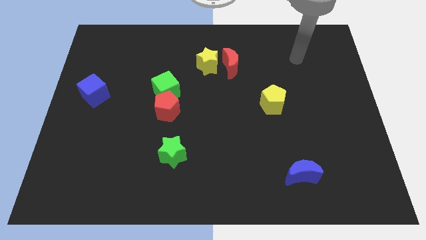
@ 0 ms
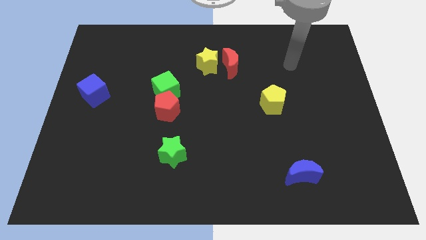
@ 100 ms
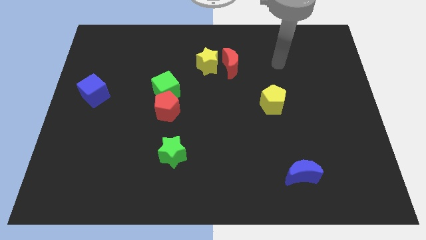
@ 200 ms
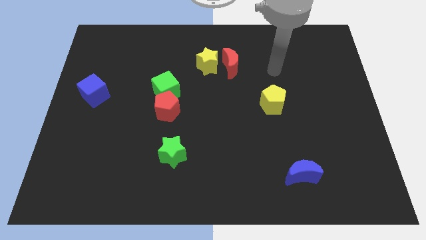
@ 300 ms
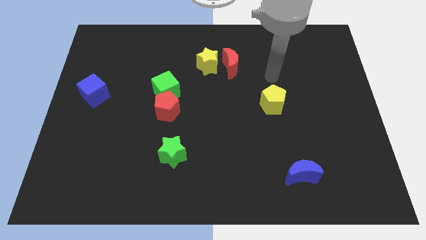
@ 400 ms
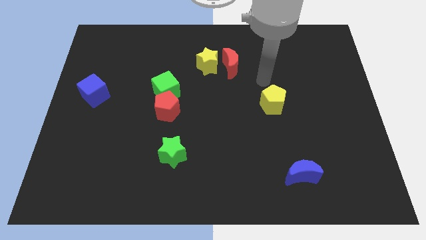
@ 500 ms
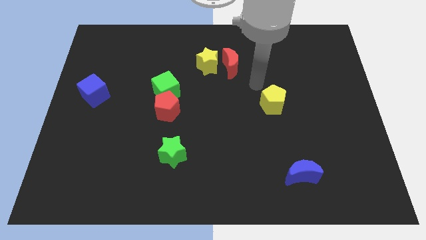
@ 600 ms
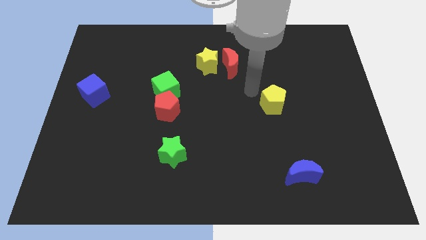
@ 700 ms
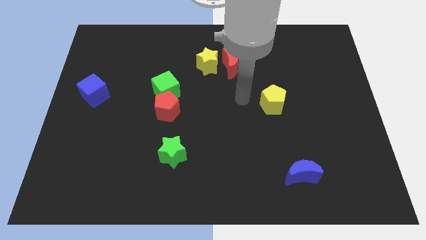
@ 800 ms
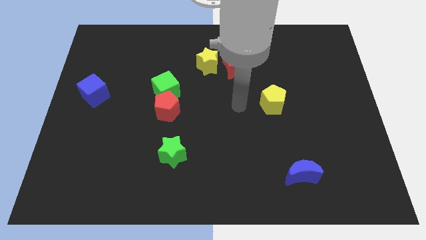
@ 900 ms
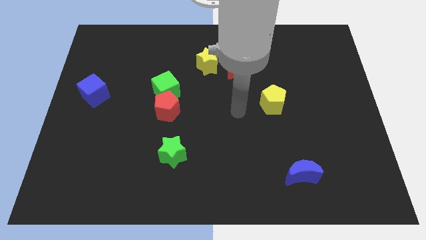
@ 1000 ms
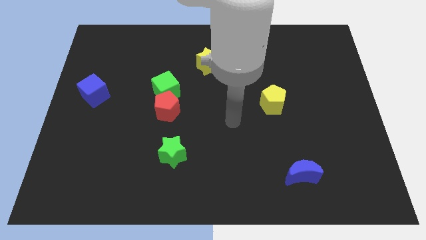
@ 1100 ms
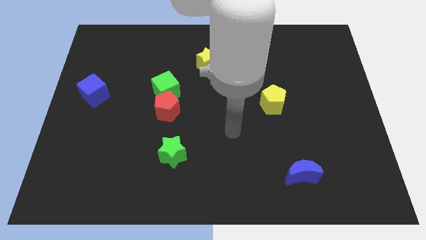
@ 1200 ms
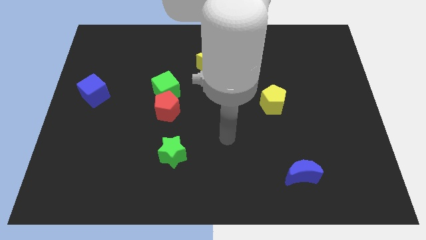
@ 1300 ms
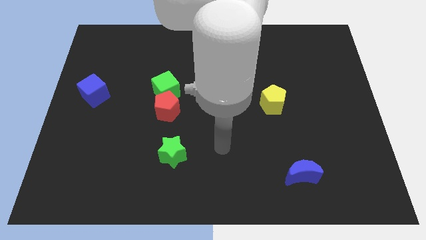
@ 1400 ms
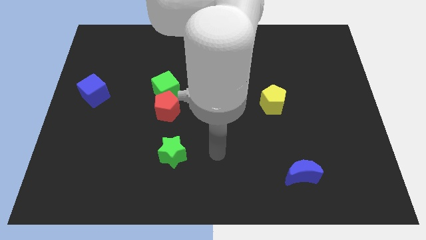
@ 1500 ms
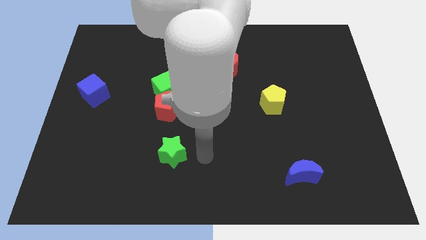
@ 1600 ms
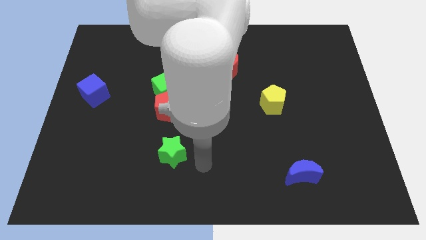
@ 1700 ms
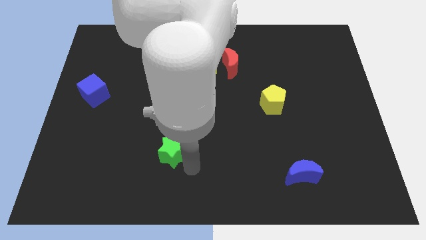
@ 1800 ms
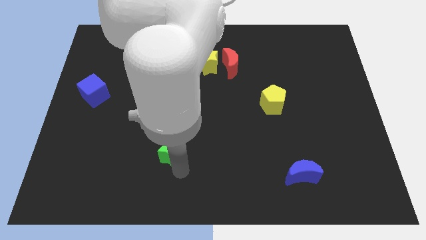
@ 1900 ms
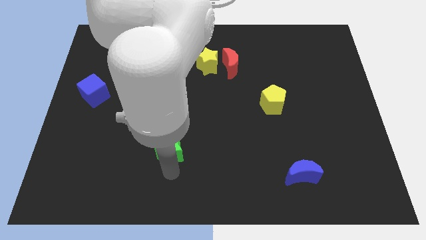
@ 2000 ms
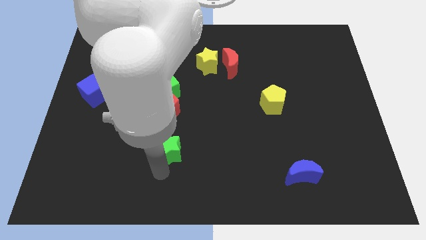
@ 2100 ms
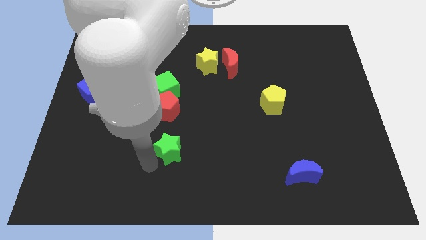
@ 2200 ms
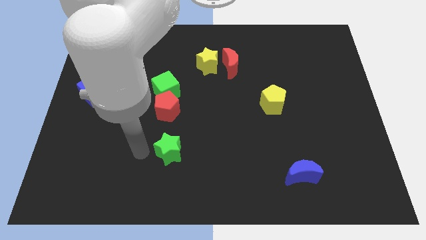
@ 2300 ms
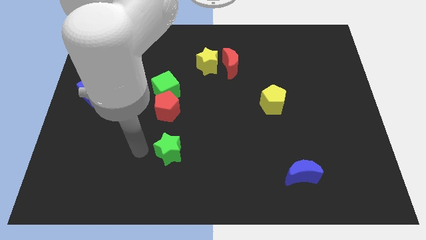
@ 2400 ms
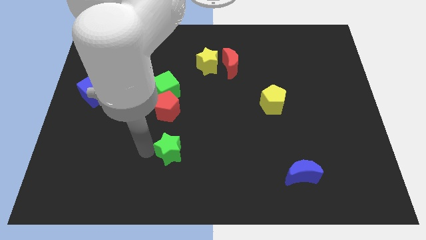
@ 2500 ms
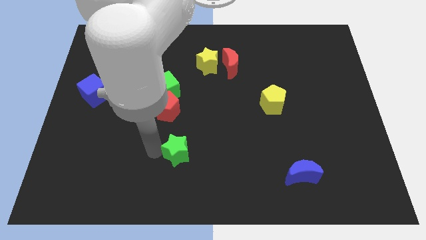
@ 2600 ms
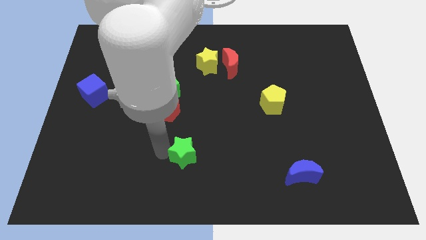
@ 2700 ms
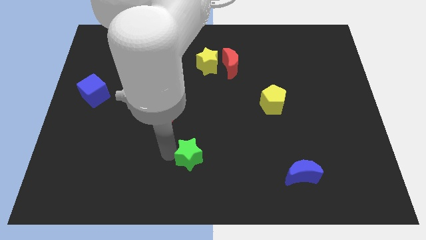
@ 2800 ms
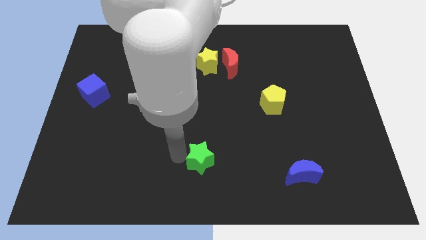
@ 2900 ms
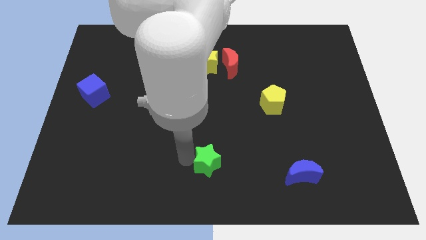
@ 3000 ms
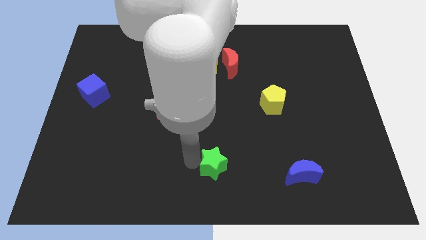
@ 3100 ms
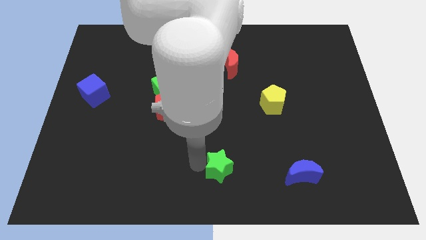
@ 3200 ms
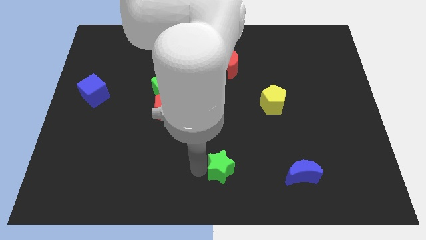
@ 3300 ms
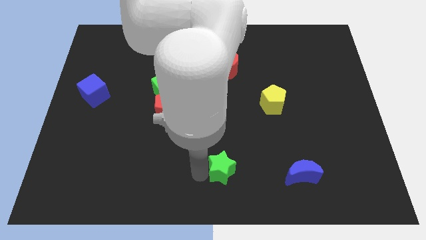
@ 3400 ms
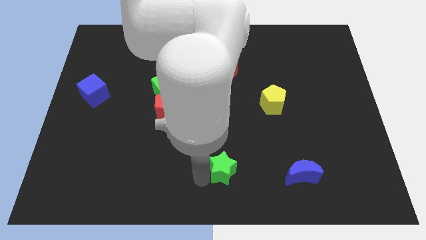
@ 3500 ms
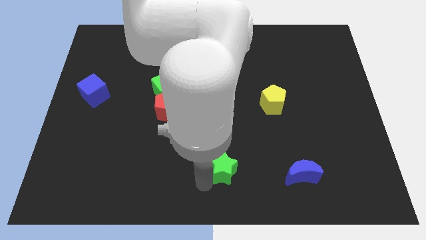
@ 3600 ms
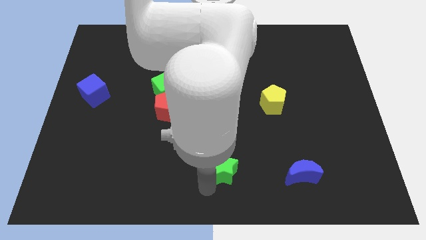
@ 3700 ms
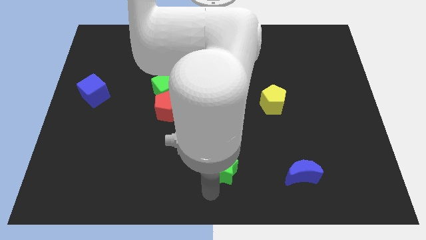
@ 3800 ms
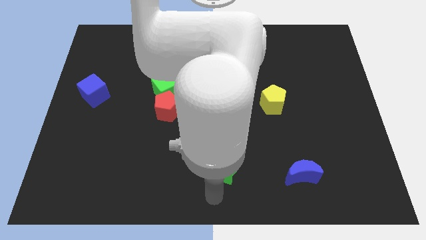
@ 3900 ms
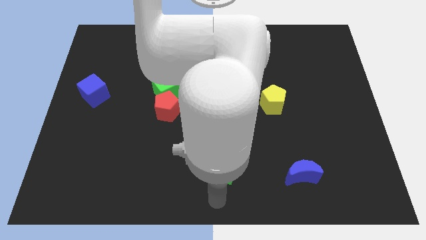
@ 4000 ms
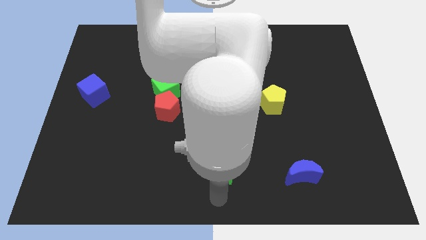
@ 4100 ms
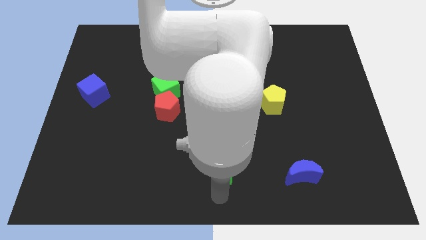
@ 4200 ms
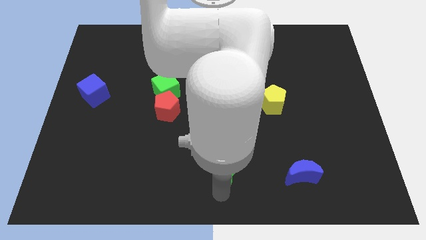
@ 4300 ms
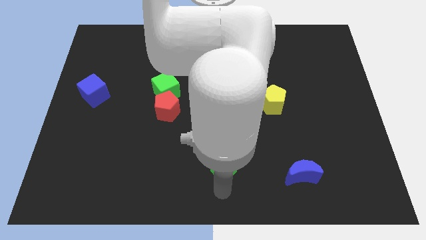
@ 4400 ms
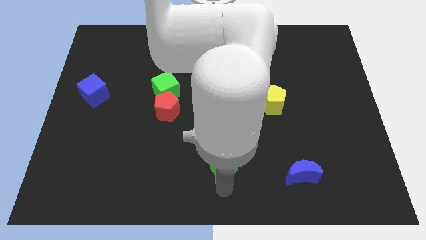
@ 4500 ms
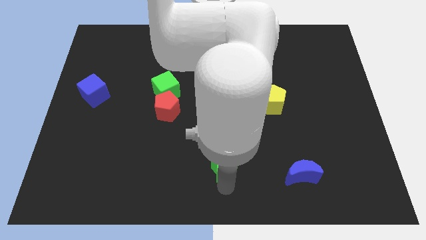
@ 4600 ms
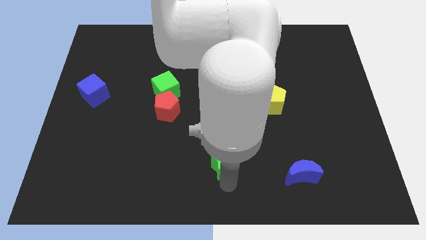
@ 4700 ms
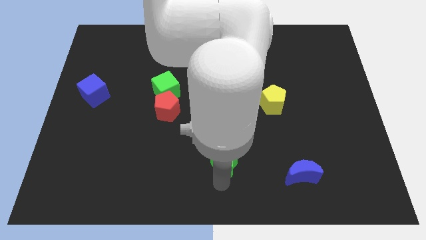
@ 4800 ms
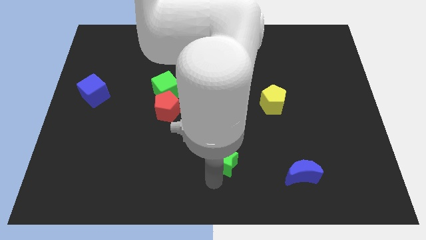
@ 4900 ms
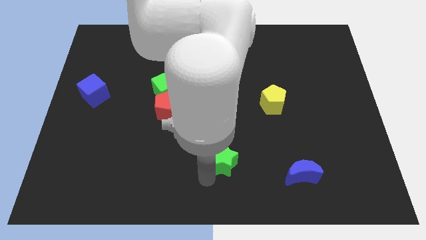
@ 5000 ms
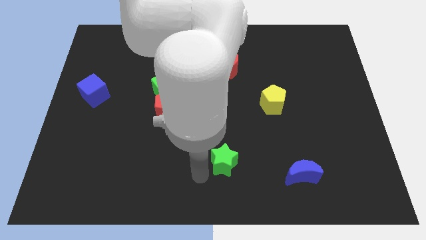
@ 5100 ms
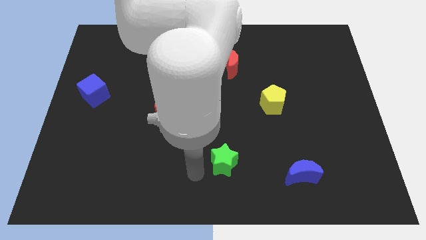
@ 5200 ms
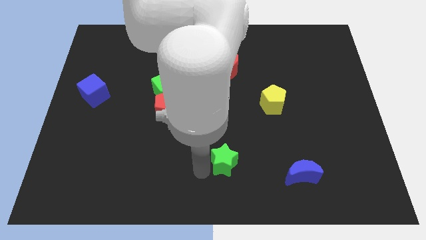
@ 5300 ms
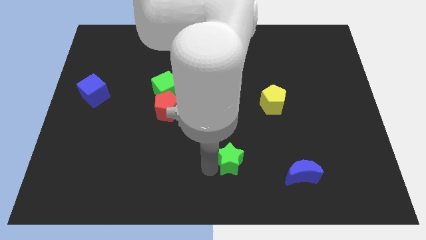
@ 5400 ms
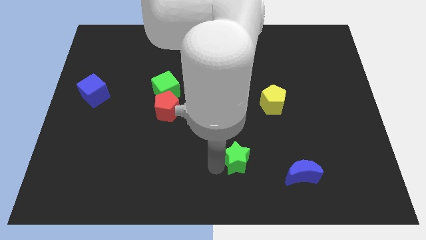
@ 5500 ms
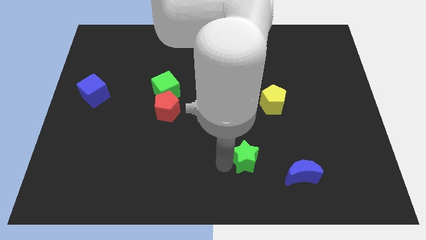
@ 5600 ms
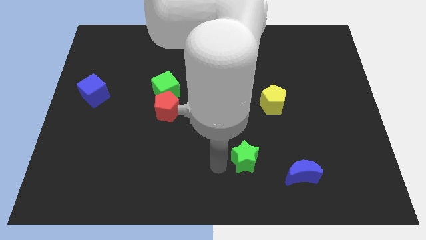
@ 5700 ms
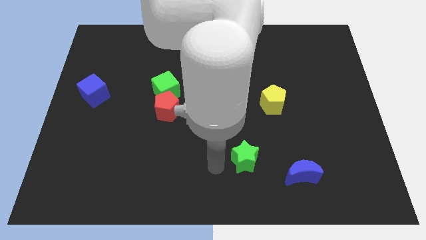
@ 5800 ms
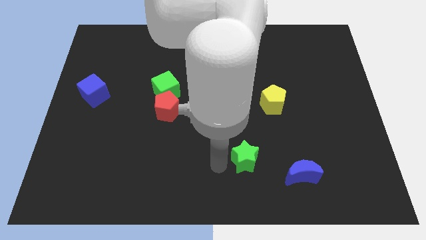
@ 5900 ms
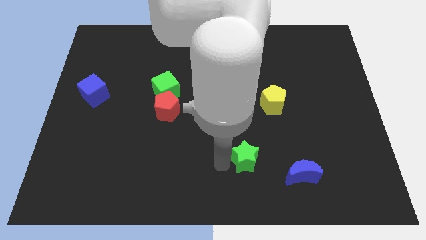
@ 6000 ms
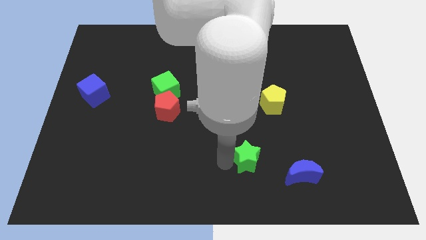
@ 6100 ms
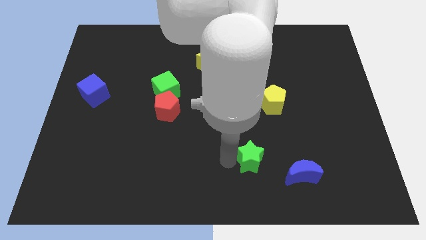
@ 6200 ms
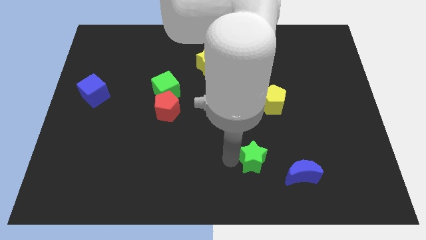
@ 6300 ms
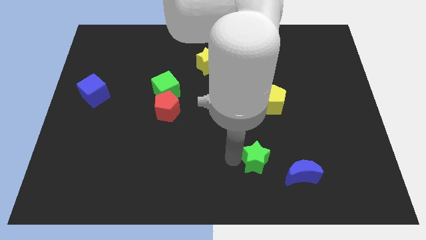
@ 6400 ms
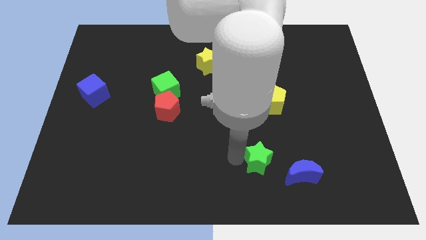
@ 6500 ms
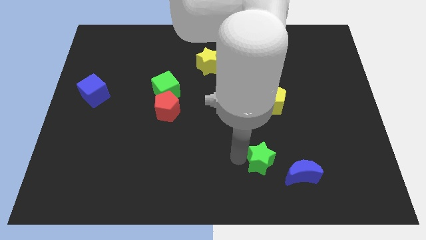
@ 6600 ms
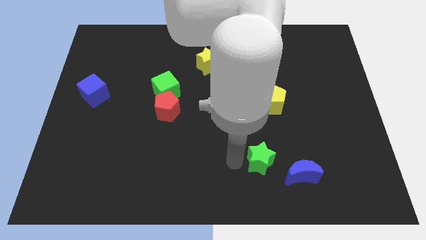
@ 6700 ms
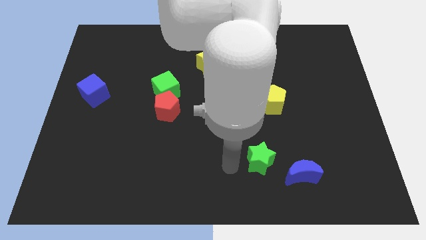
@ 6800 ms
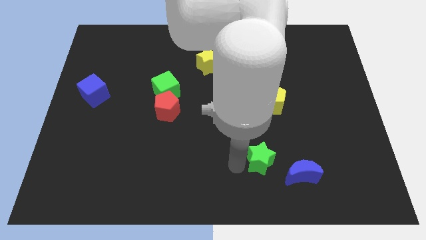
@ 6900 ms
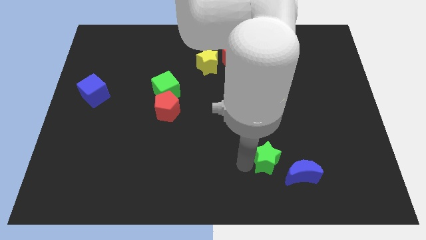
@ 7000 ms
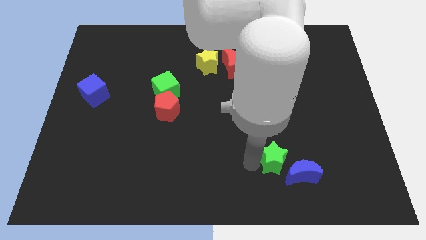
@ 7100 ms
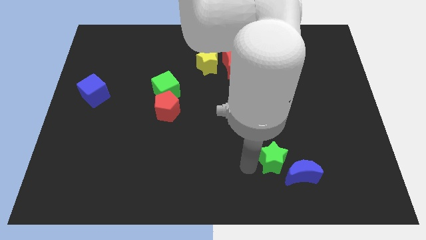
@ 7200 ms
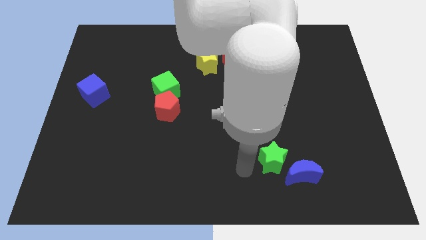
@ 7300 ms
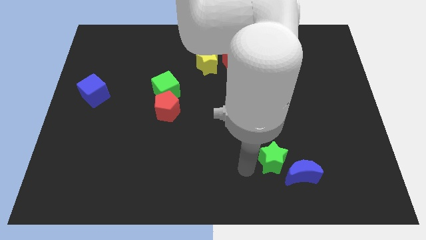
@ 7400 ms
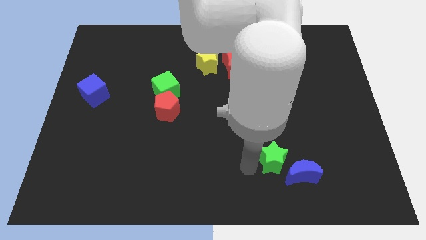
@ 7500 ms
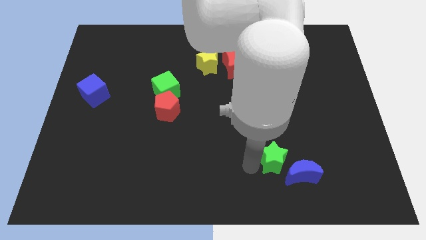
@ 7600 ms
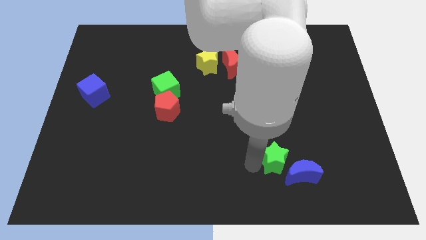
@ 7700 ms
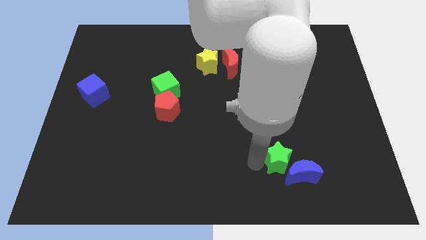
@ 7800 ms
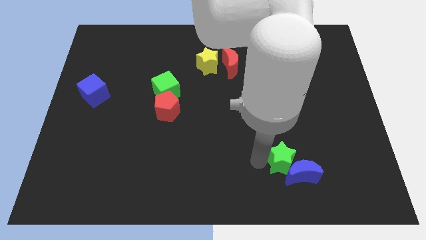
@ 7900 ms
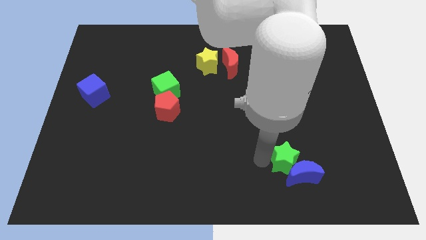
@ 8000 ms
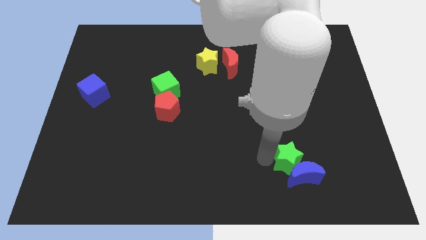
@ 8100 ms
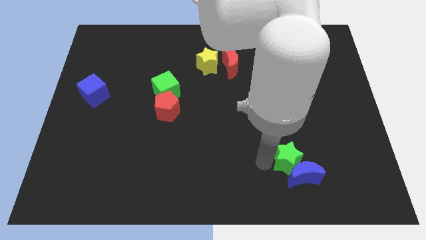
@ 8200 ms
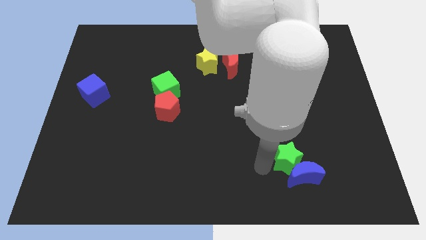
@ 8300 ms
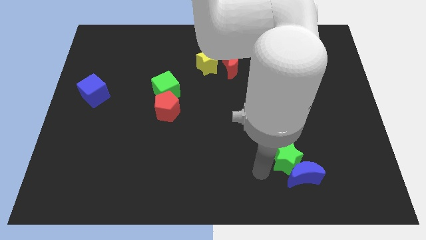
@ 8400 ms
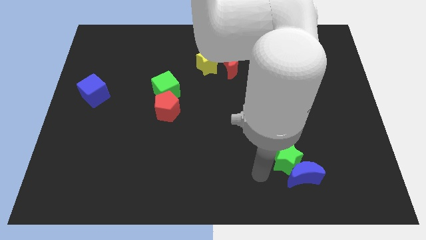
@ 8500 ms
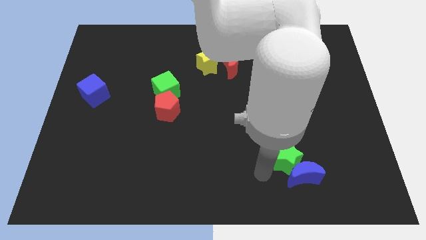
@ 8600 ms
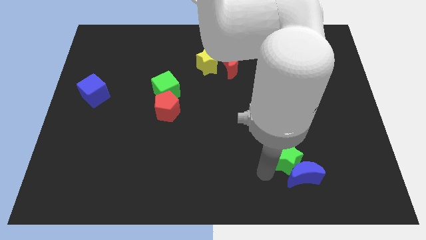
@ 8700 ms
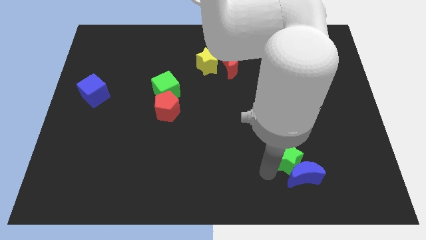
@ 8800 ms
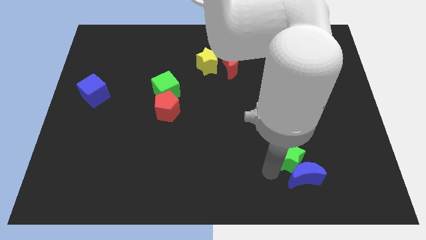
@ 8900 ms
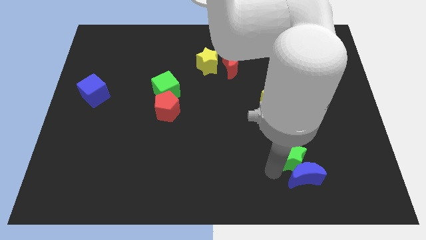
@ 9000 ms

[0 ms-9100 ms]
slide the green star diagonally up and to the right of the blue moon
